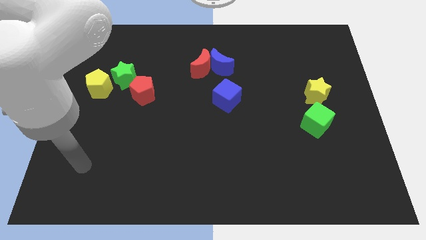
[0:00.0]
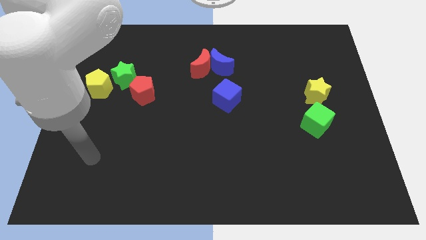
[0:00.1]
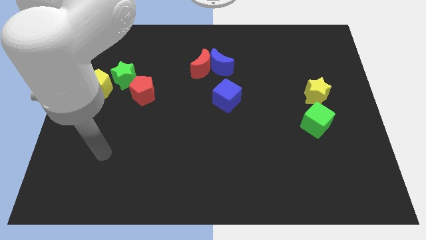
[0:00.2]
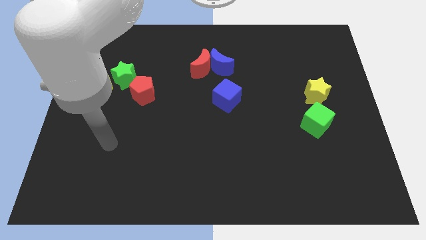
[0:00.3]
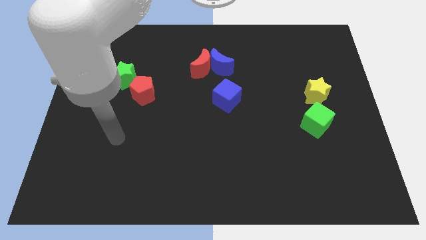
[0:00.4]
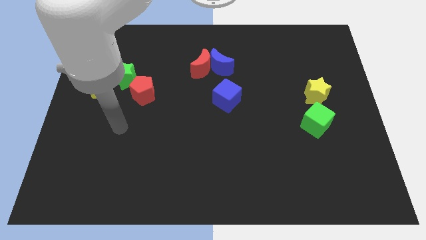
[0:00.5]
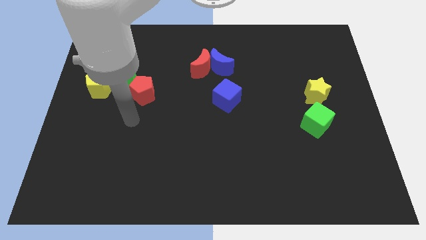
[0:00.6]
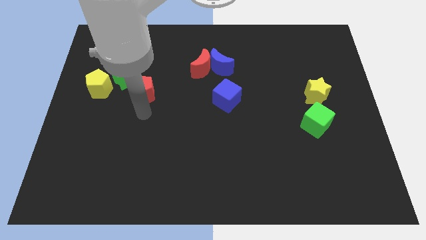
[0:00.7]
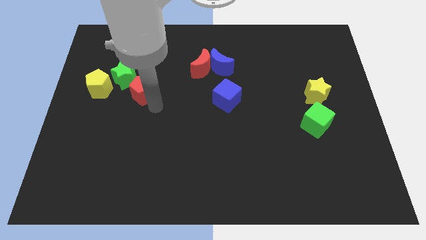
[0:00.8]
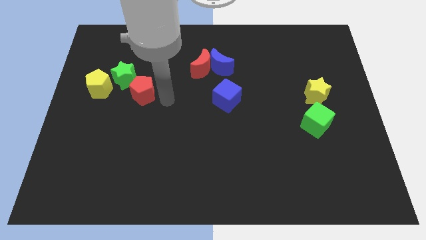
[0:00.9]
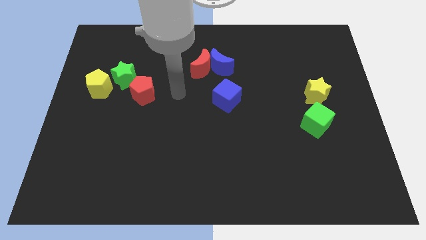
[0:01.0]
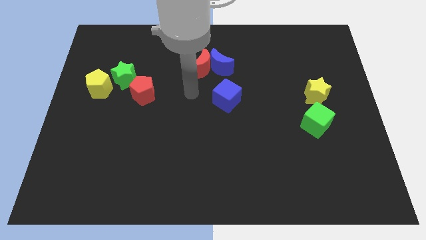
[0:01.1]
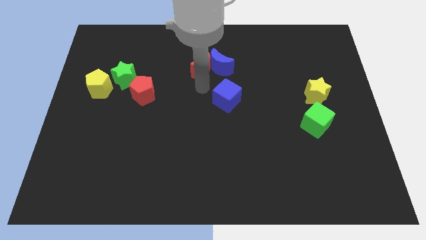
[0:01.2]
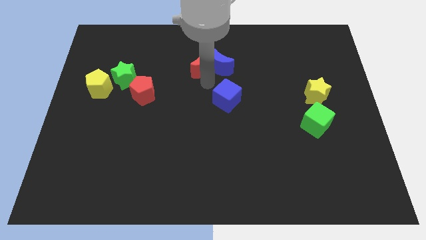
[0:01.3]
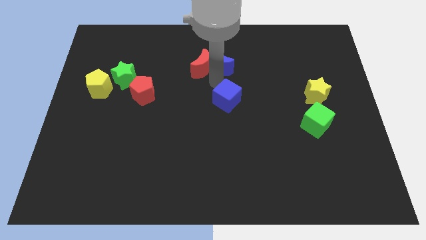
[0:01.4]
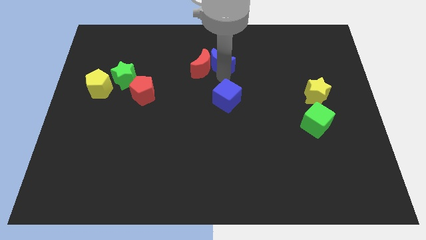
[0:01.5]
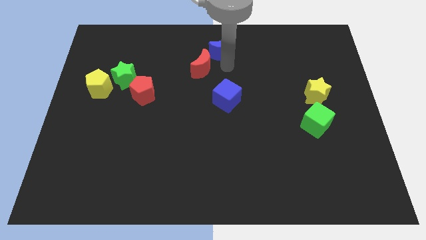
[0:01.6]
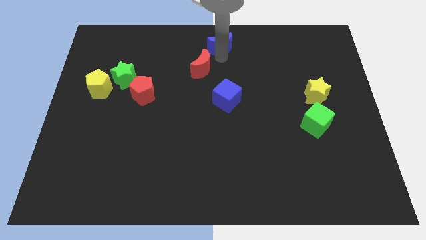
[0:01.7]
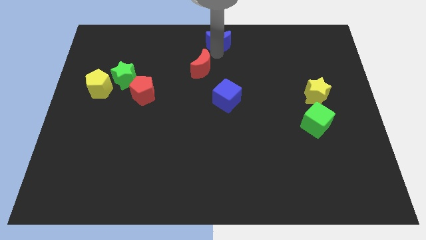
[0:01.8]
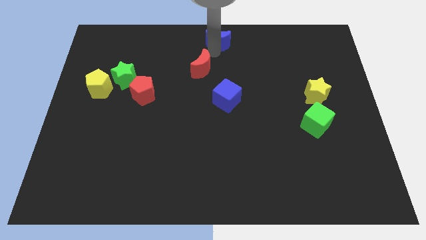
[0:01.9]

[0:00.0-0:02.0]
pull the red moon apart from the blue moon

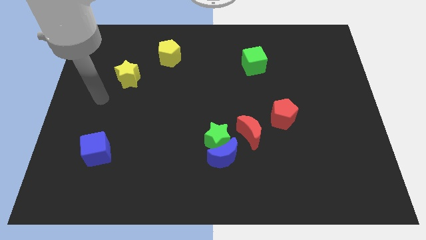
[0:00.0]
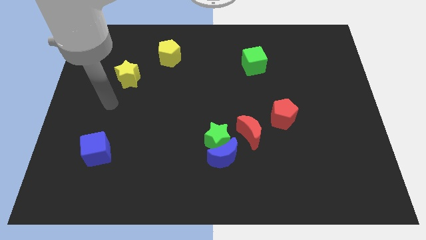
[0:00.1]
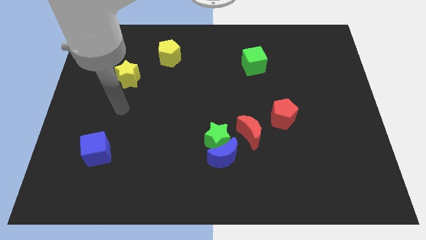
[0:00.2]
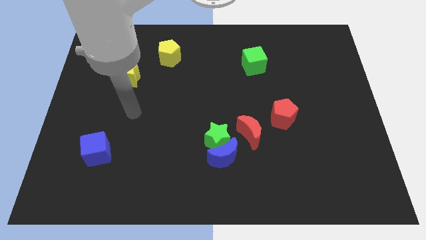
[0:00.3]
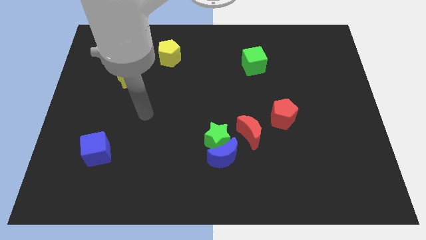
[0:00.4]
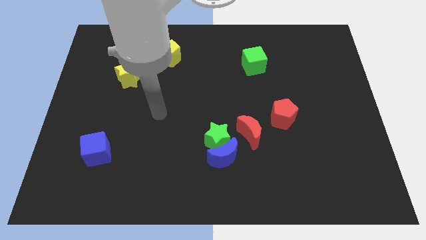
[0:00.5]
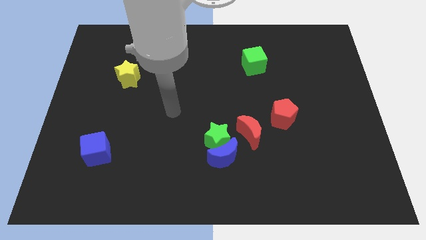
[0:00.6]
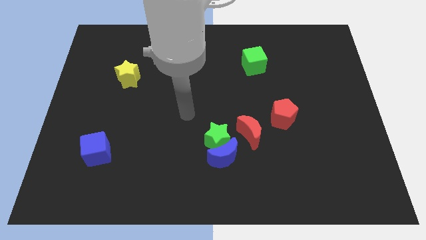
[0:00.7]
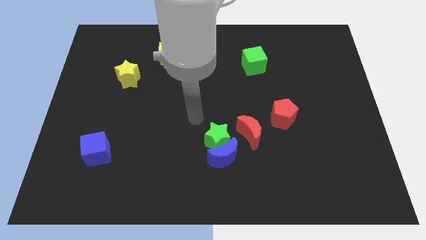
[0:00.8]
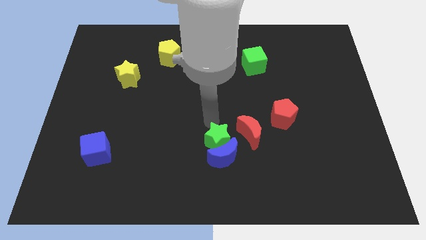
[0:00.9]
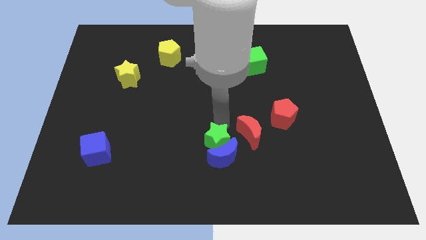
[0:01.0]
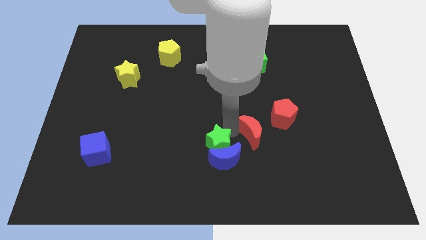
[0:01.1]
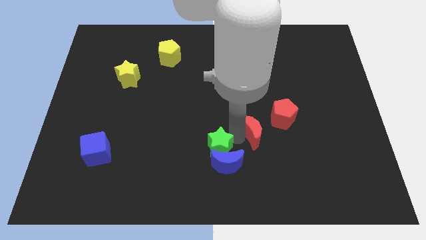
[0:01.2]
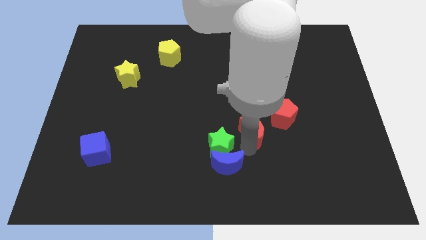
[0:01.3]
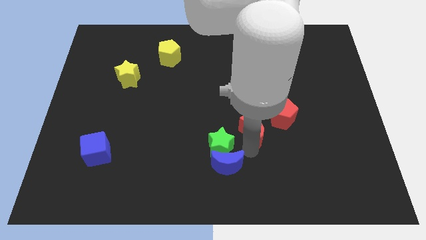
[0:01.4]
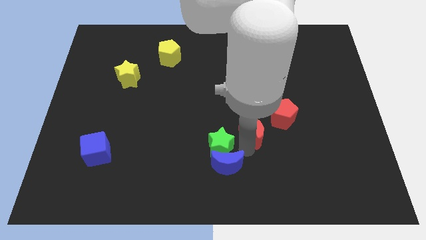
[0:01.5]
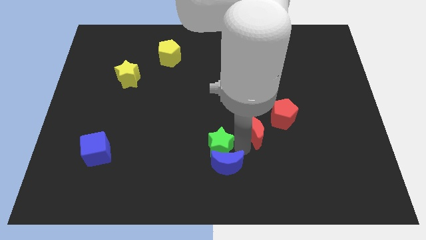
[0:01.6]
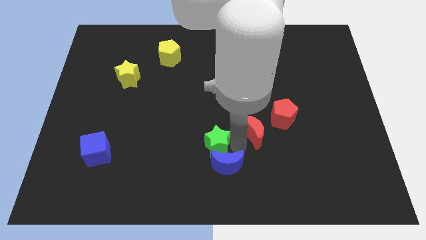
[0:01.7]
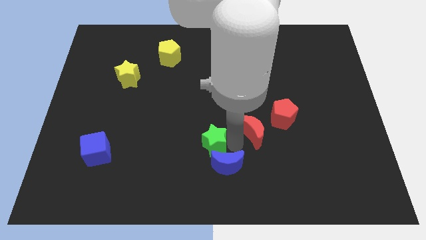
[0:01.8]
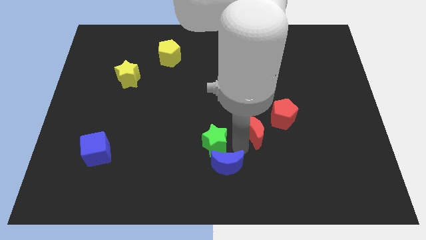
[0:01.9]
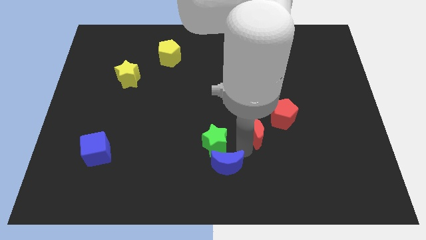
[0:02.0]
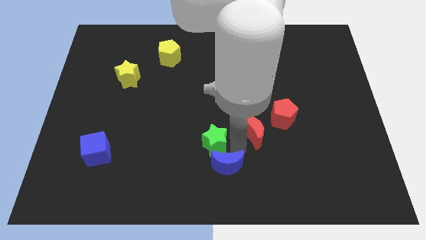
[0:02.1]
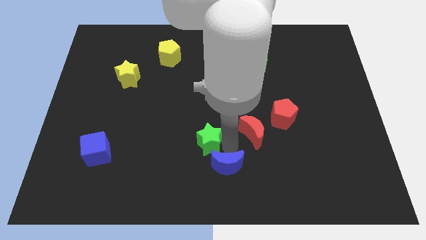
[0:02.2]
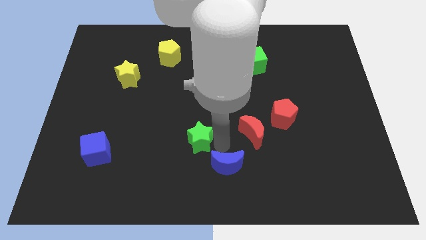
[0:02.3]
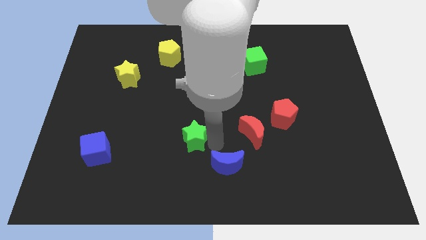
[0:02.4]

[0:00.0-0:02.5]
pull the green star apart from the blue moon and red moon

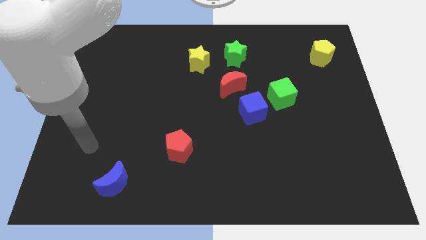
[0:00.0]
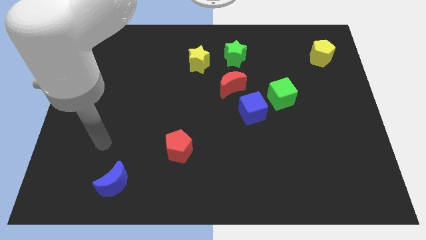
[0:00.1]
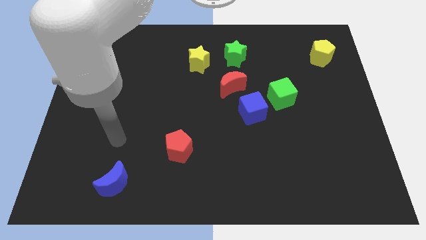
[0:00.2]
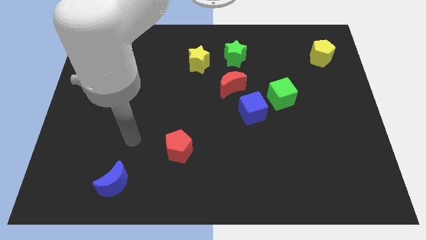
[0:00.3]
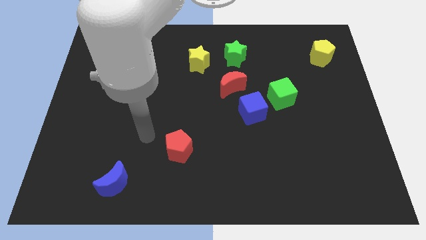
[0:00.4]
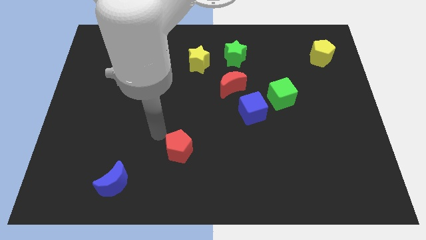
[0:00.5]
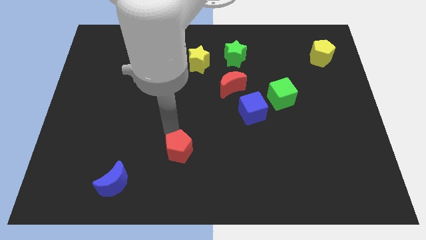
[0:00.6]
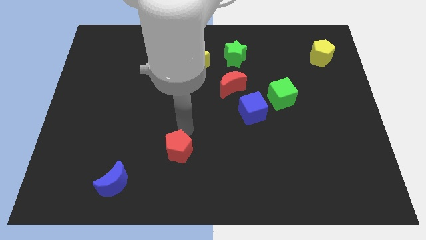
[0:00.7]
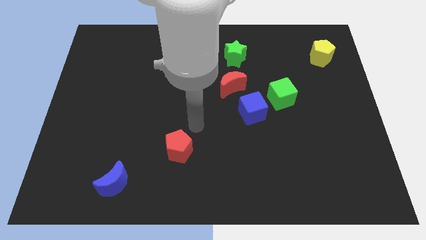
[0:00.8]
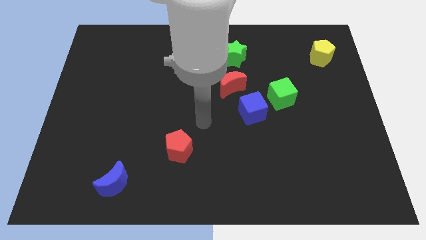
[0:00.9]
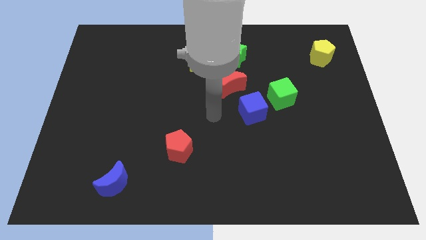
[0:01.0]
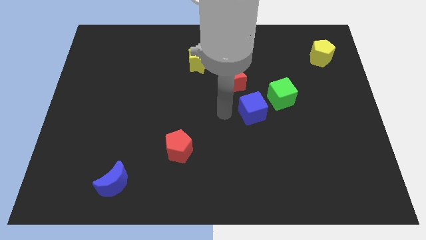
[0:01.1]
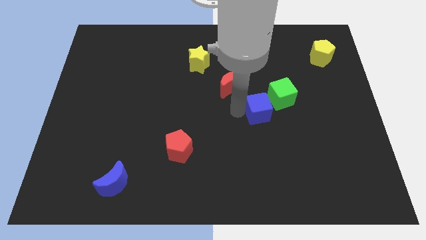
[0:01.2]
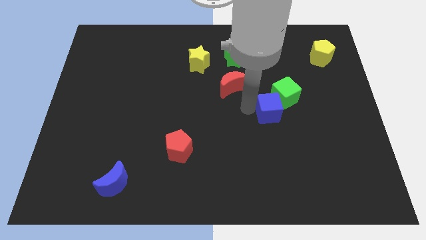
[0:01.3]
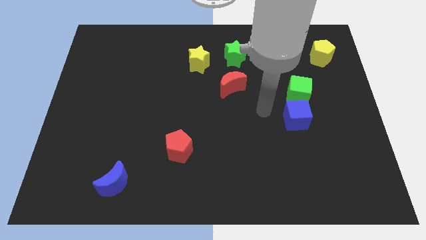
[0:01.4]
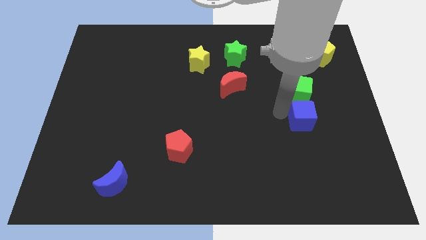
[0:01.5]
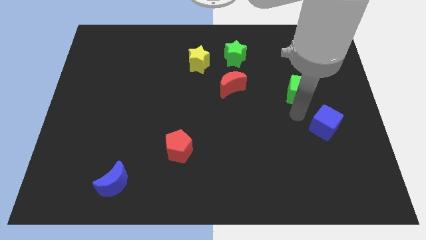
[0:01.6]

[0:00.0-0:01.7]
pull the green cube apart from the blue cube

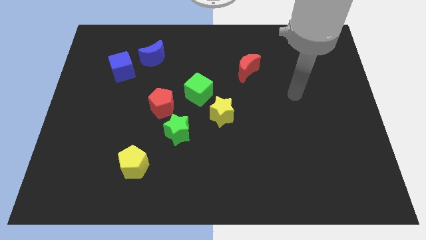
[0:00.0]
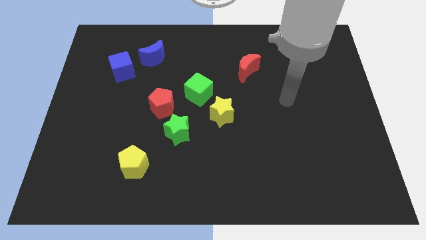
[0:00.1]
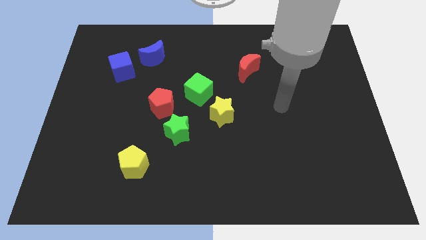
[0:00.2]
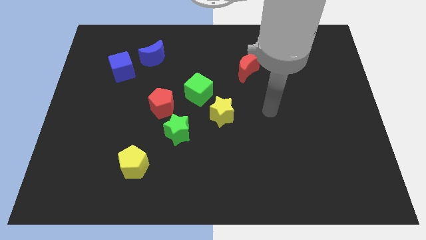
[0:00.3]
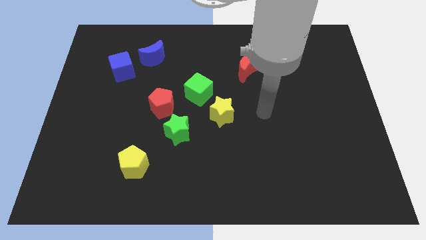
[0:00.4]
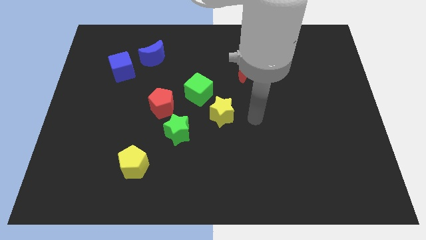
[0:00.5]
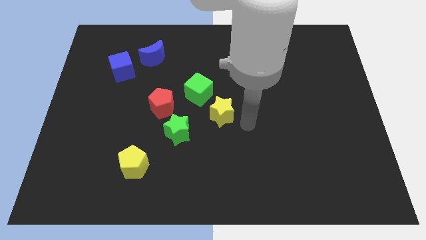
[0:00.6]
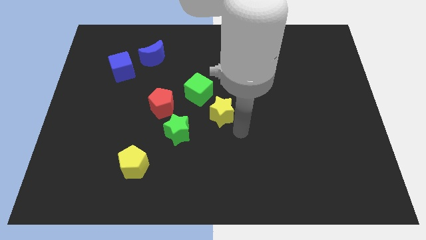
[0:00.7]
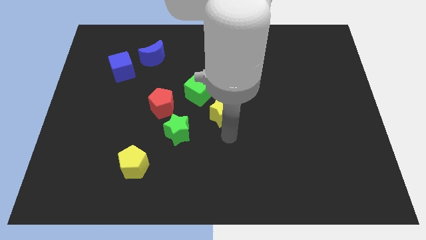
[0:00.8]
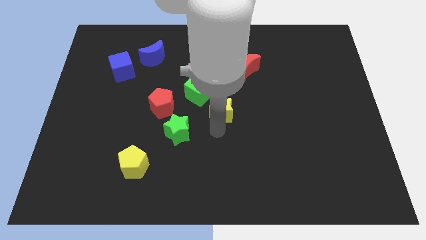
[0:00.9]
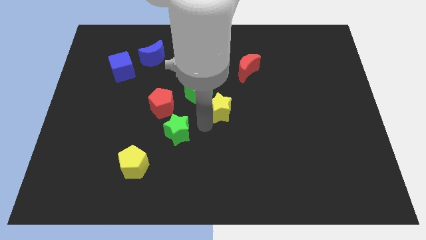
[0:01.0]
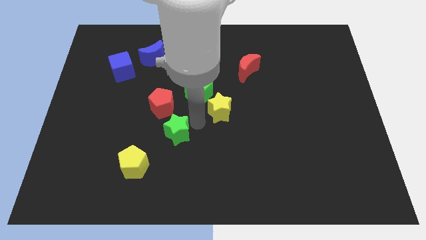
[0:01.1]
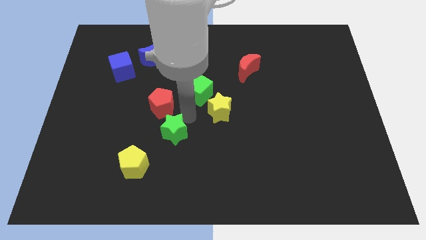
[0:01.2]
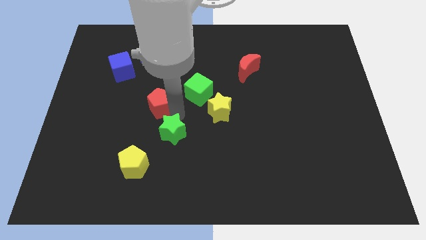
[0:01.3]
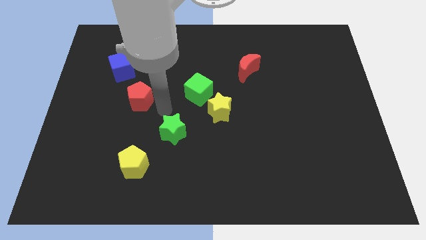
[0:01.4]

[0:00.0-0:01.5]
pull the green star apart from the red pentagon

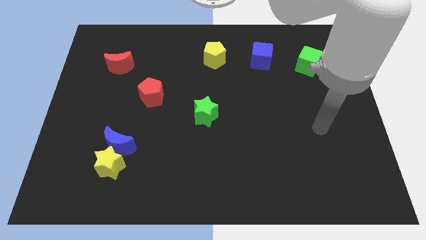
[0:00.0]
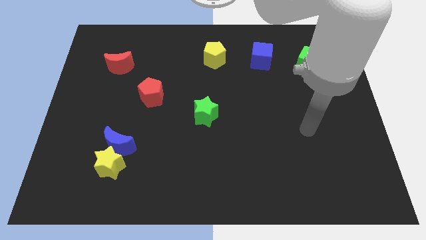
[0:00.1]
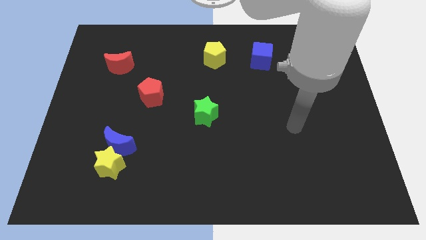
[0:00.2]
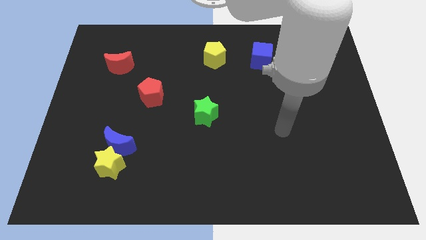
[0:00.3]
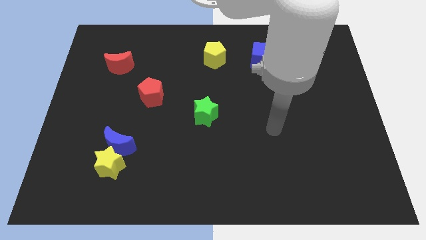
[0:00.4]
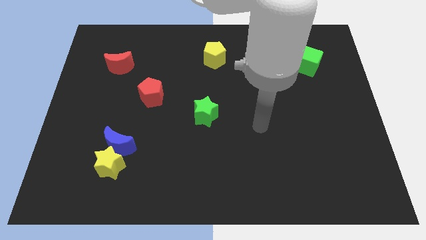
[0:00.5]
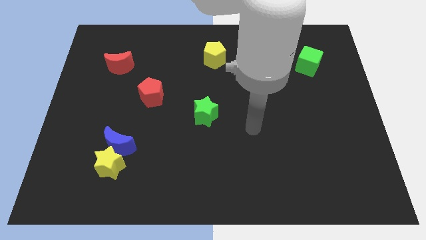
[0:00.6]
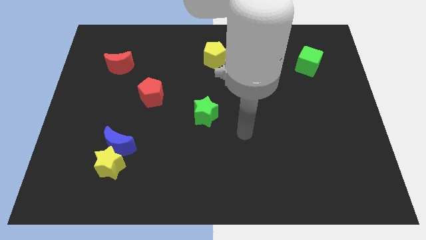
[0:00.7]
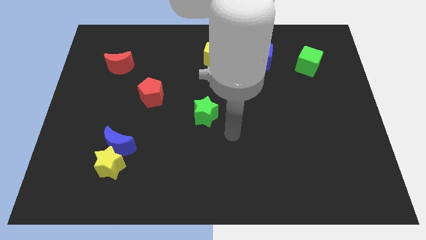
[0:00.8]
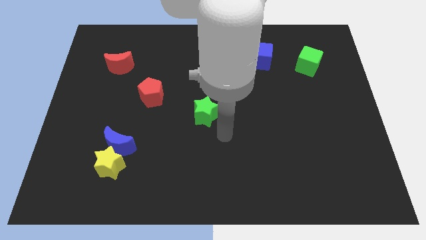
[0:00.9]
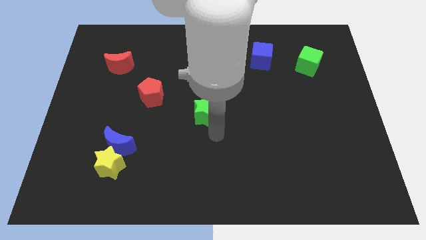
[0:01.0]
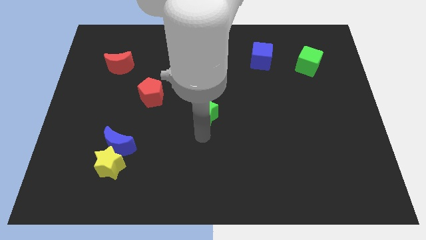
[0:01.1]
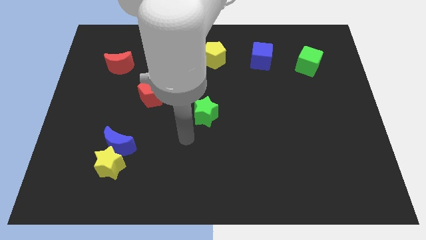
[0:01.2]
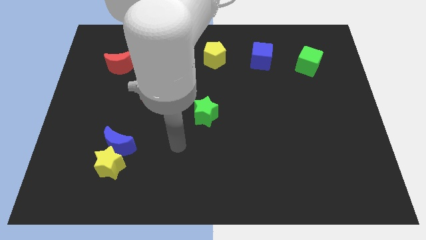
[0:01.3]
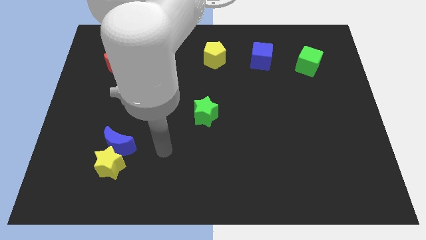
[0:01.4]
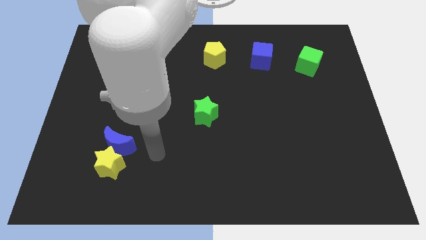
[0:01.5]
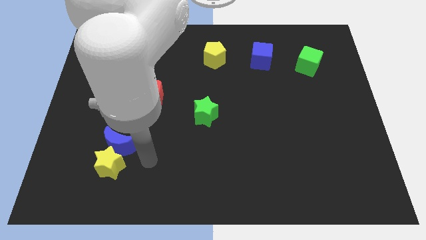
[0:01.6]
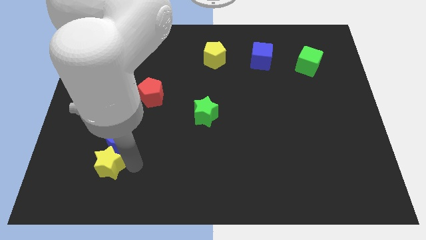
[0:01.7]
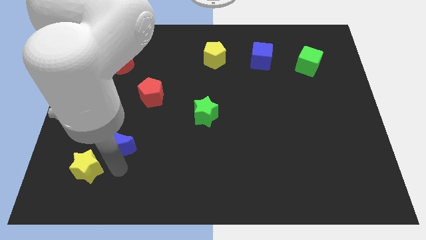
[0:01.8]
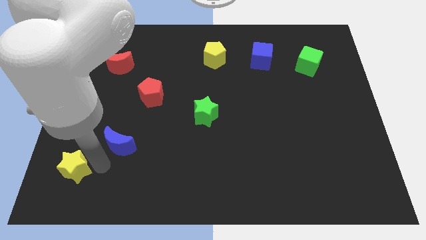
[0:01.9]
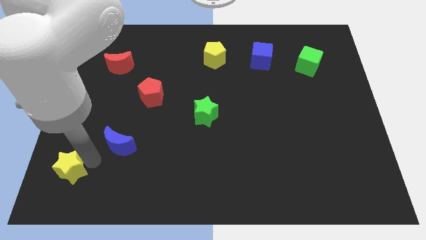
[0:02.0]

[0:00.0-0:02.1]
pull the blue moon apart from the yellow star
